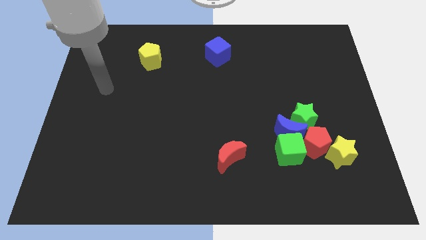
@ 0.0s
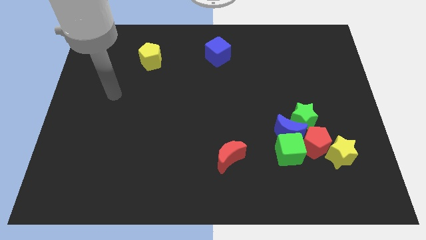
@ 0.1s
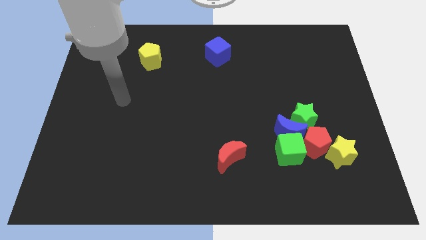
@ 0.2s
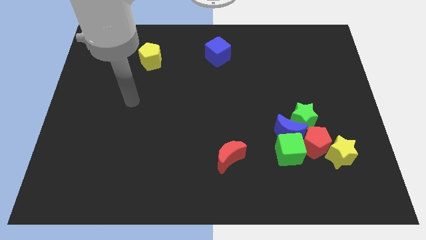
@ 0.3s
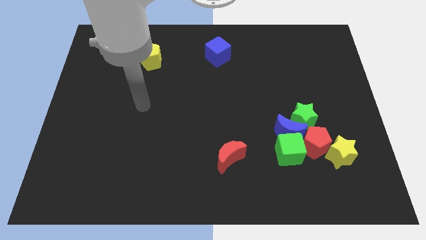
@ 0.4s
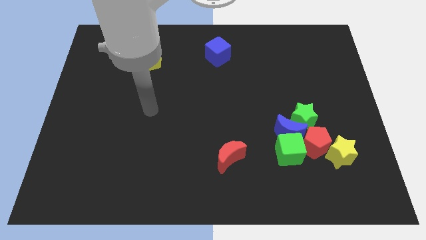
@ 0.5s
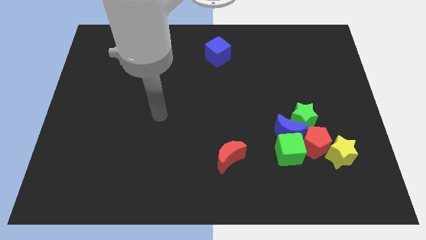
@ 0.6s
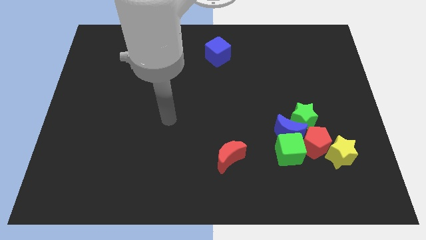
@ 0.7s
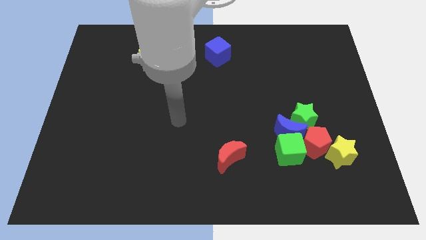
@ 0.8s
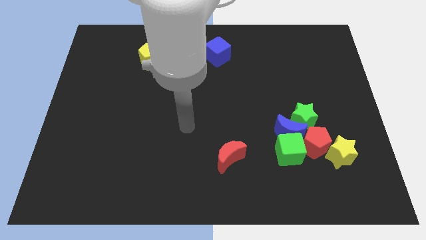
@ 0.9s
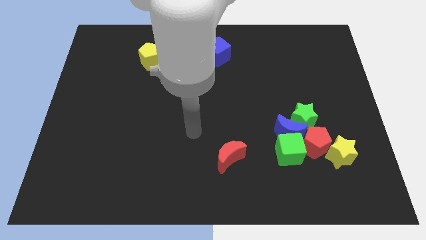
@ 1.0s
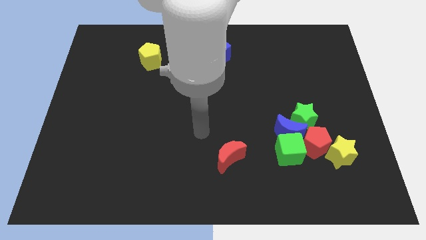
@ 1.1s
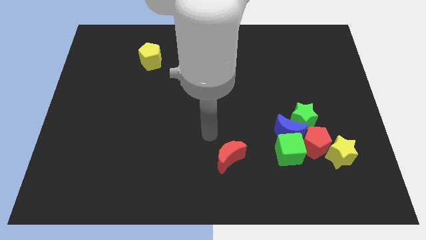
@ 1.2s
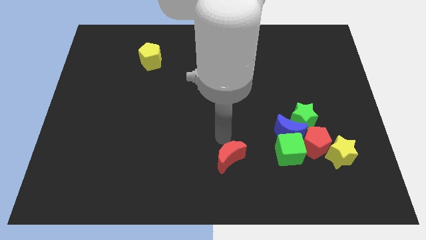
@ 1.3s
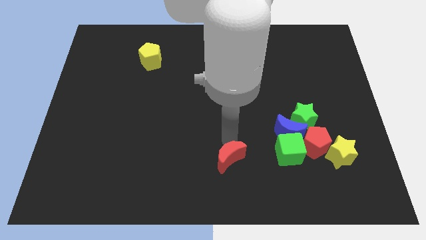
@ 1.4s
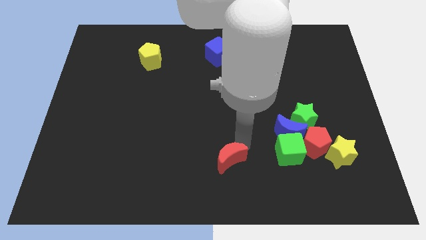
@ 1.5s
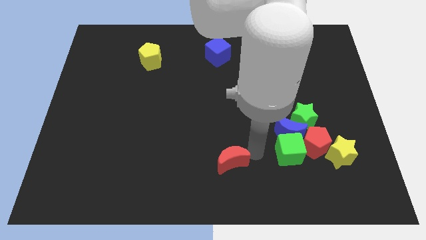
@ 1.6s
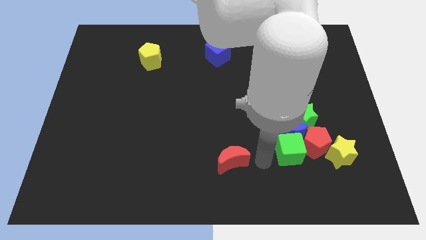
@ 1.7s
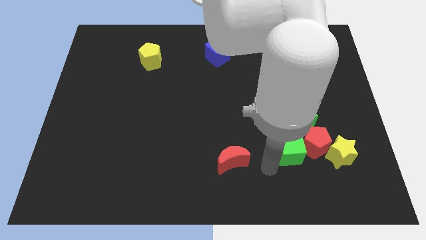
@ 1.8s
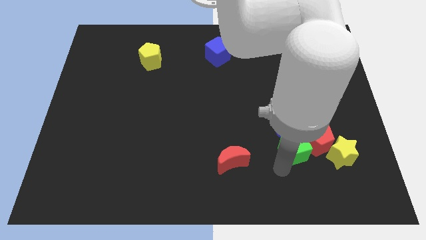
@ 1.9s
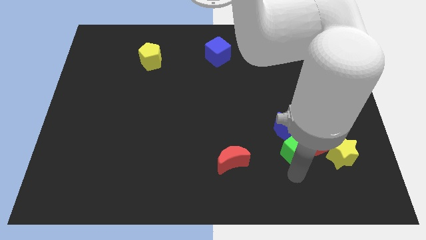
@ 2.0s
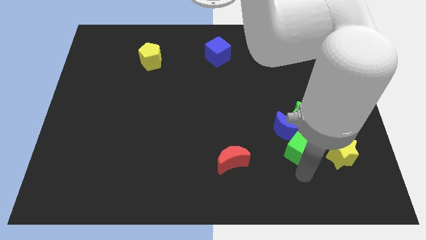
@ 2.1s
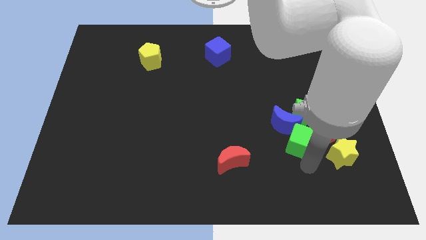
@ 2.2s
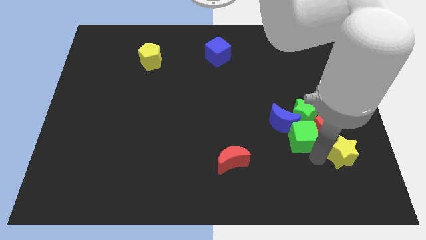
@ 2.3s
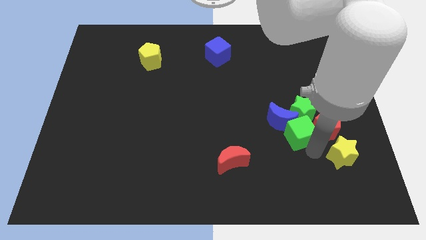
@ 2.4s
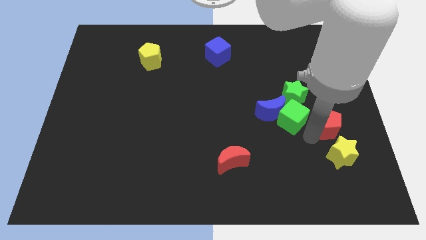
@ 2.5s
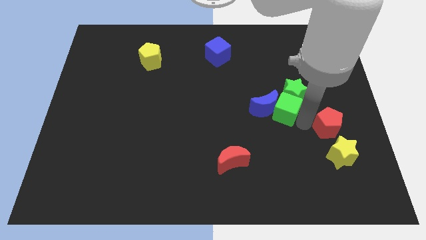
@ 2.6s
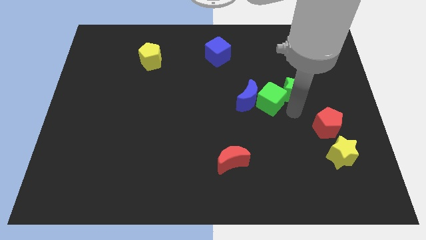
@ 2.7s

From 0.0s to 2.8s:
move the blue moon away from the group

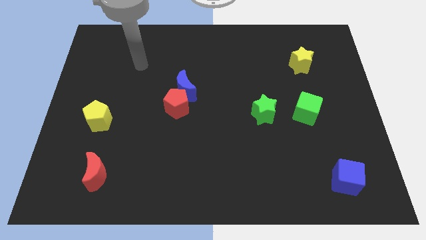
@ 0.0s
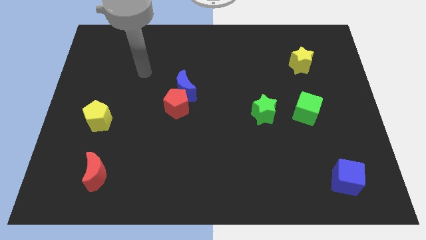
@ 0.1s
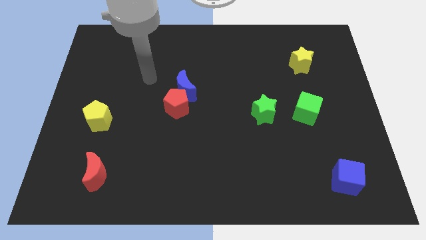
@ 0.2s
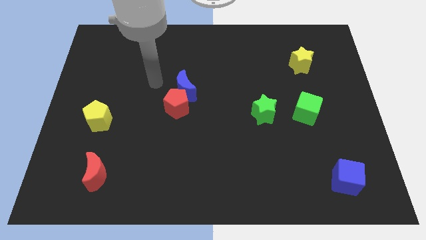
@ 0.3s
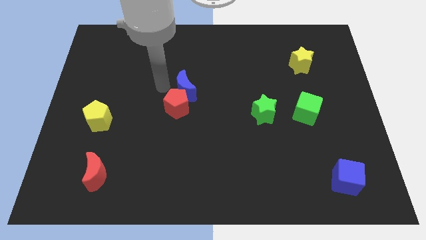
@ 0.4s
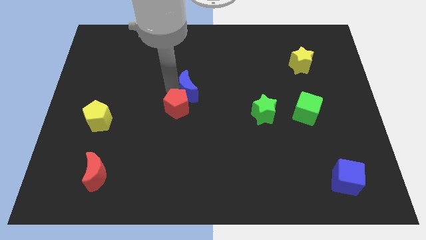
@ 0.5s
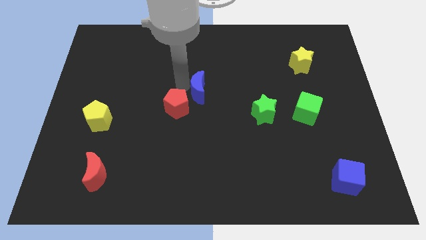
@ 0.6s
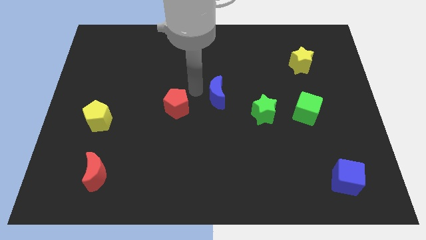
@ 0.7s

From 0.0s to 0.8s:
pull the red pentagon apart from the blue moon

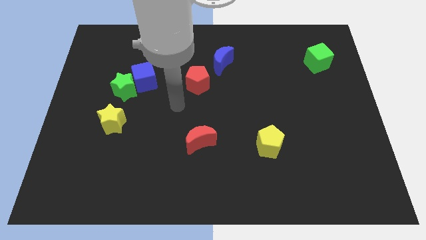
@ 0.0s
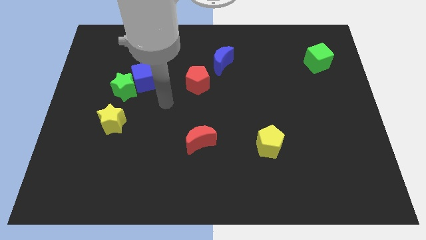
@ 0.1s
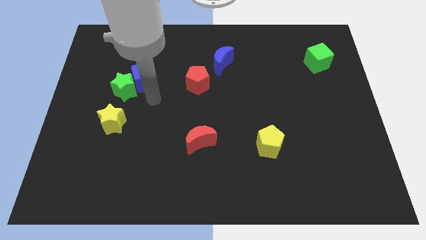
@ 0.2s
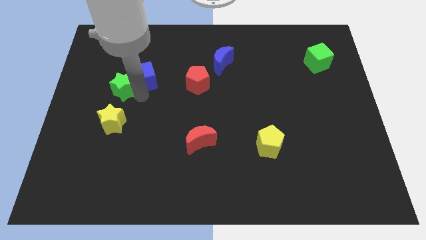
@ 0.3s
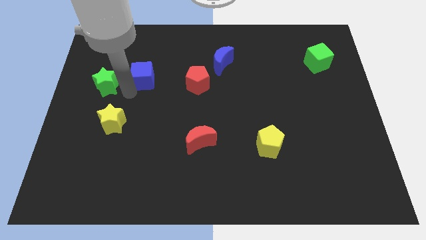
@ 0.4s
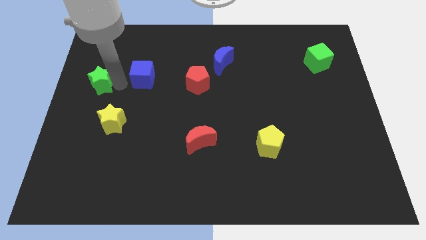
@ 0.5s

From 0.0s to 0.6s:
move the blue cube away from the green star

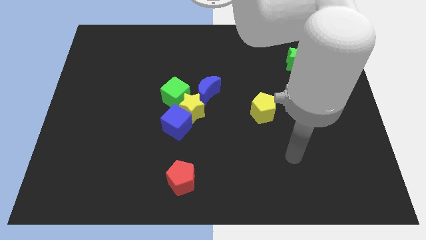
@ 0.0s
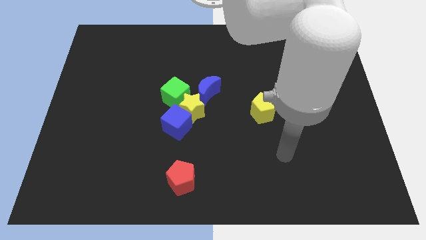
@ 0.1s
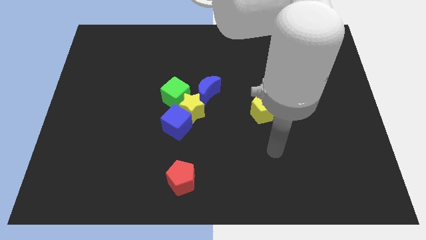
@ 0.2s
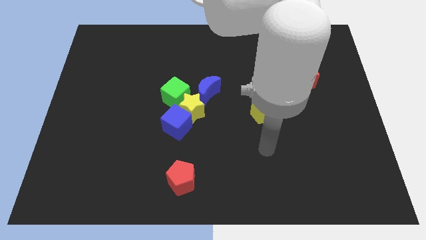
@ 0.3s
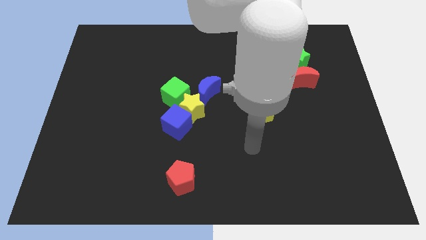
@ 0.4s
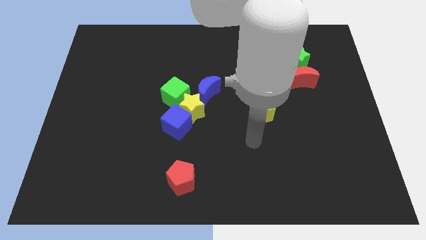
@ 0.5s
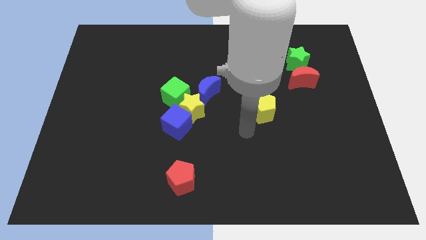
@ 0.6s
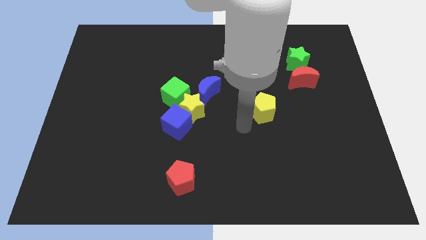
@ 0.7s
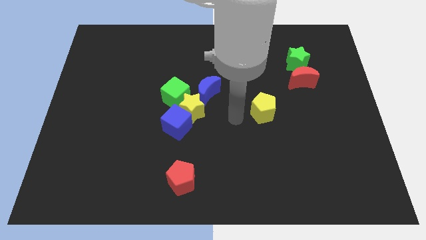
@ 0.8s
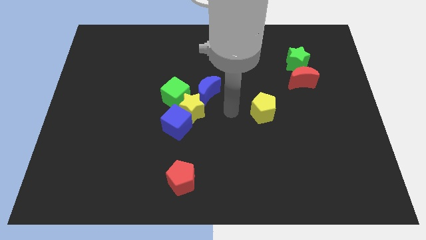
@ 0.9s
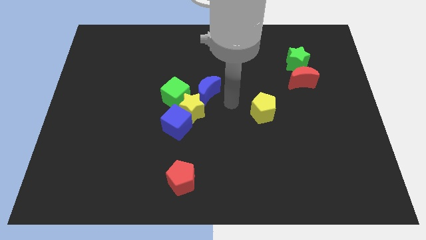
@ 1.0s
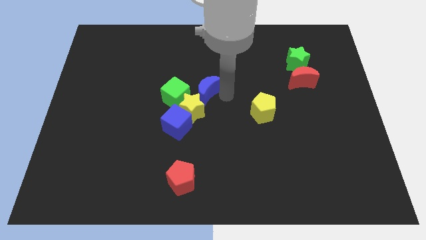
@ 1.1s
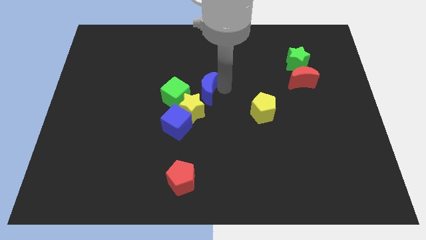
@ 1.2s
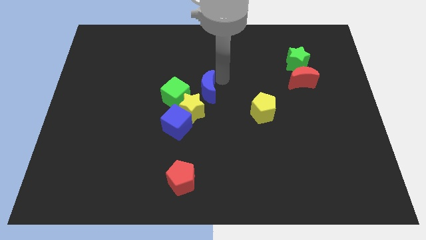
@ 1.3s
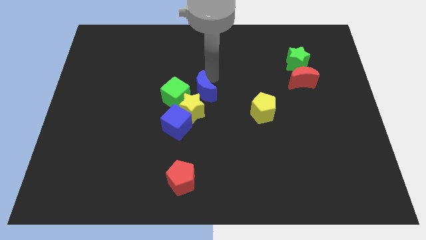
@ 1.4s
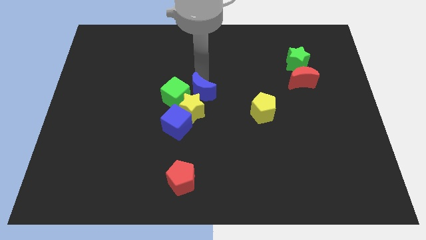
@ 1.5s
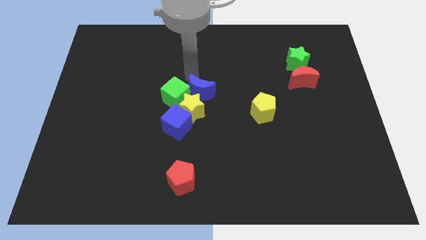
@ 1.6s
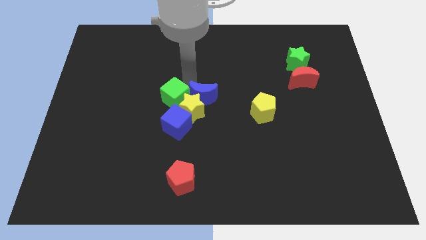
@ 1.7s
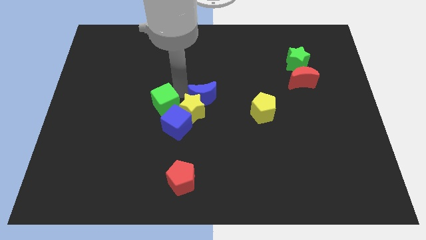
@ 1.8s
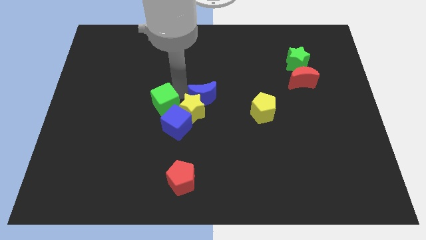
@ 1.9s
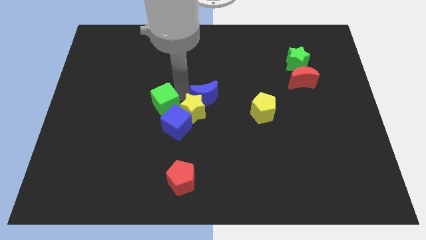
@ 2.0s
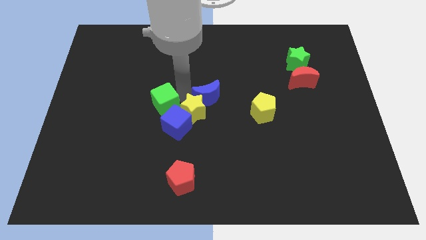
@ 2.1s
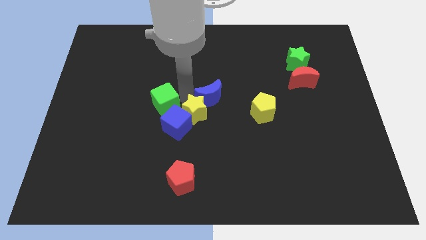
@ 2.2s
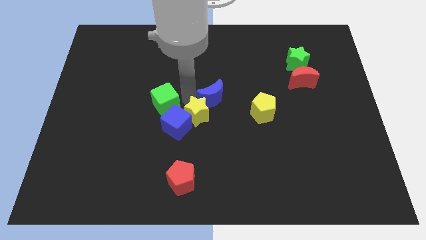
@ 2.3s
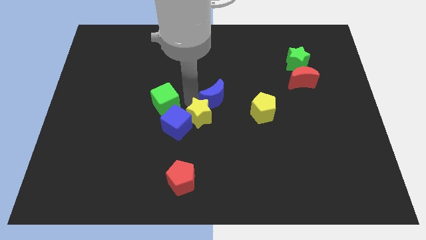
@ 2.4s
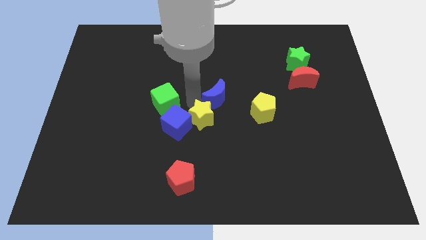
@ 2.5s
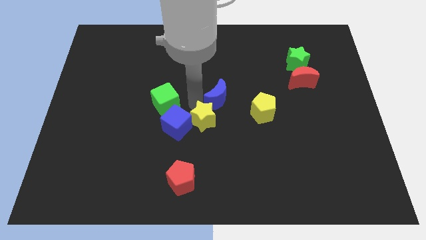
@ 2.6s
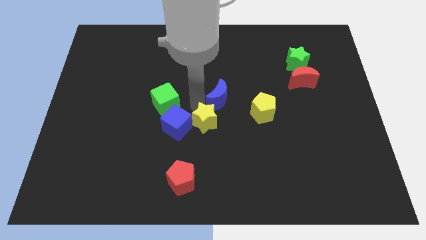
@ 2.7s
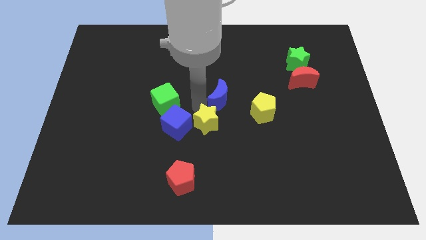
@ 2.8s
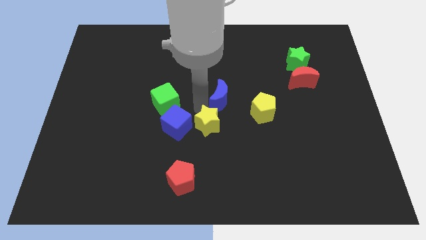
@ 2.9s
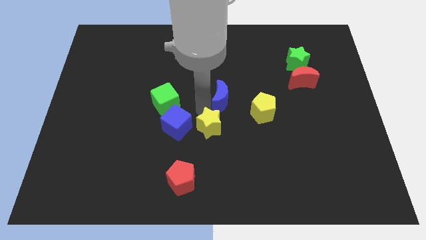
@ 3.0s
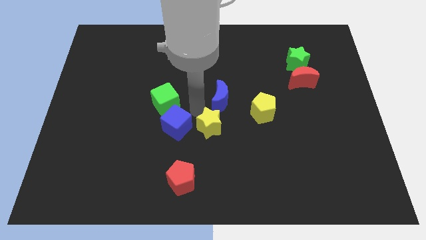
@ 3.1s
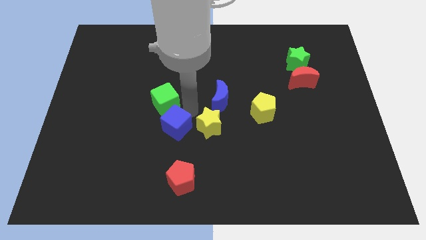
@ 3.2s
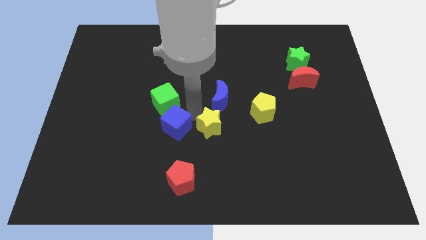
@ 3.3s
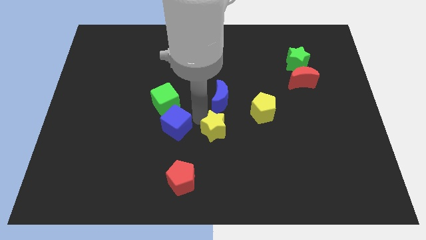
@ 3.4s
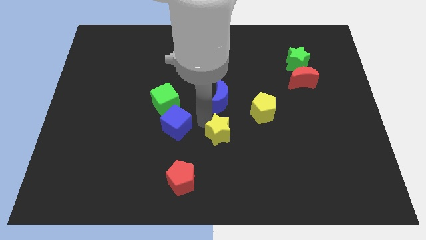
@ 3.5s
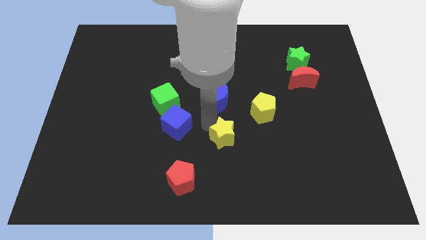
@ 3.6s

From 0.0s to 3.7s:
move the yellow star away from the blue cube, green cube, and blue moon

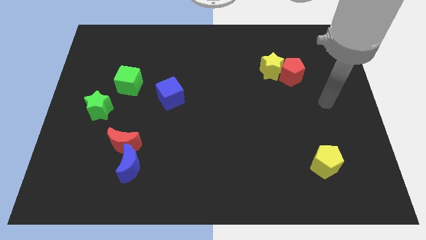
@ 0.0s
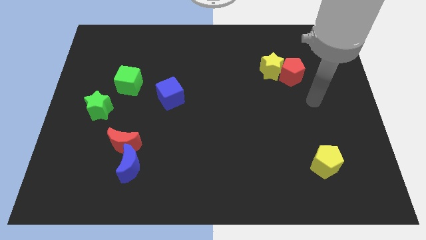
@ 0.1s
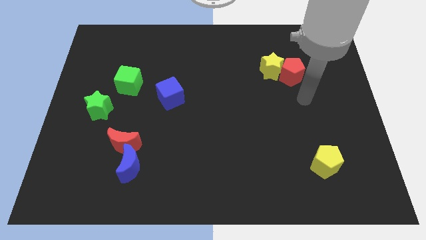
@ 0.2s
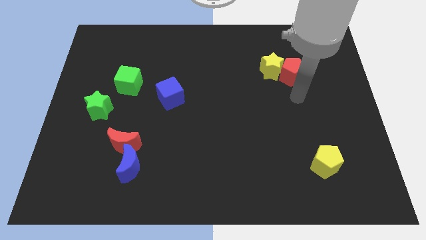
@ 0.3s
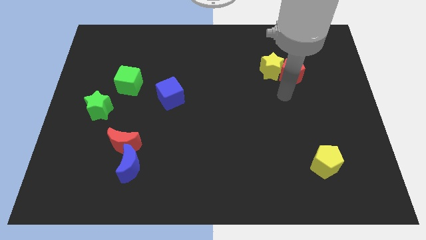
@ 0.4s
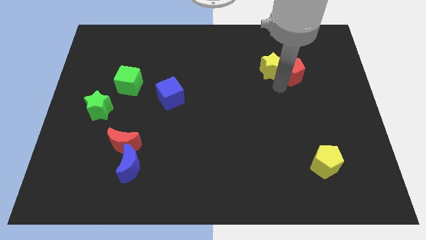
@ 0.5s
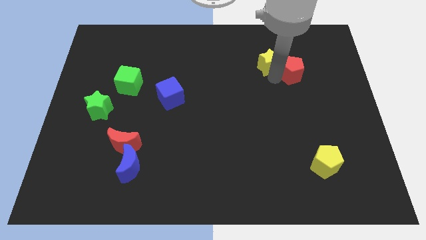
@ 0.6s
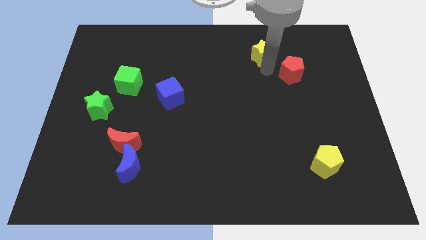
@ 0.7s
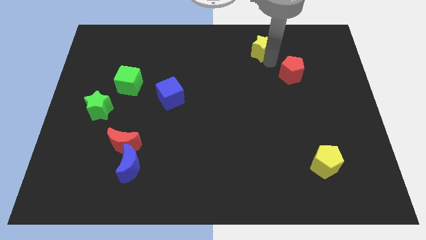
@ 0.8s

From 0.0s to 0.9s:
separate the red pentagon from the yellow star

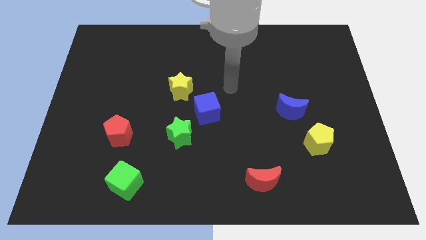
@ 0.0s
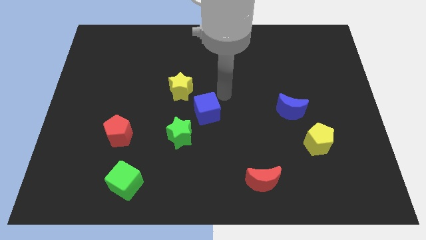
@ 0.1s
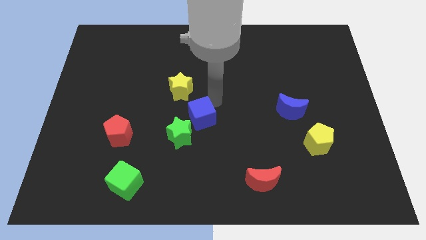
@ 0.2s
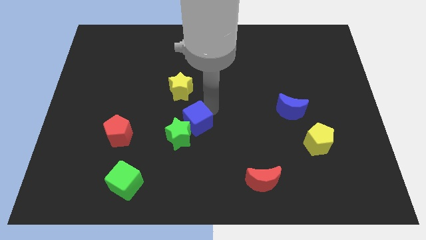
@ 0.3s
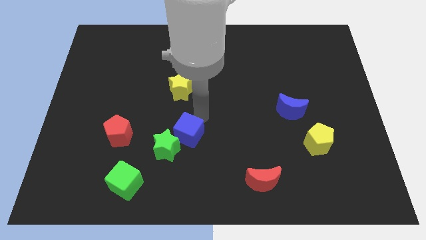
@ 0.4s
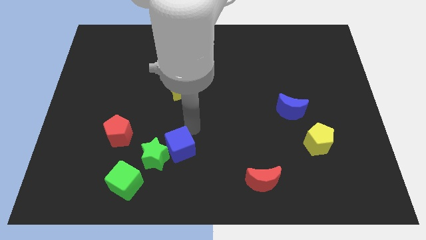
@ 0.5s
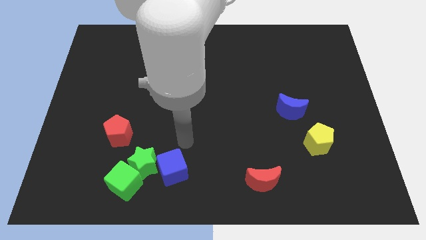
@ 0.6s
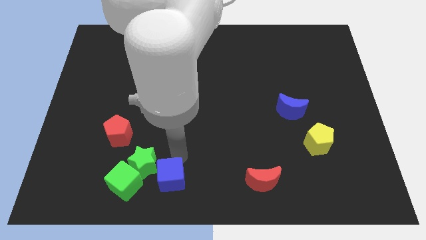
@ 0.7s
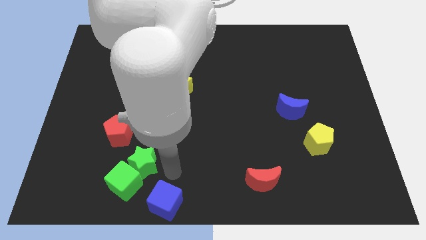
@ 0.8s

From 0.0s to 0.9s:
pull the green star apart from the blue cube
